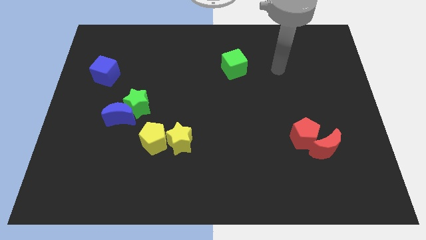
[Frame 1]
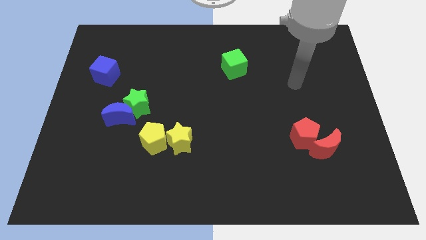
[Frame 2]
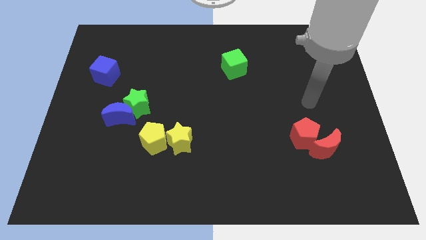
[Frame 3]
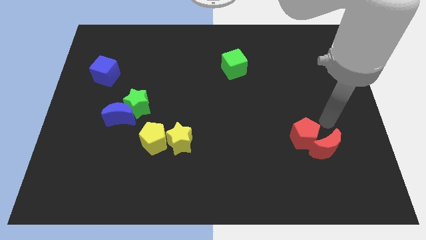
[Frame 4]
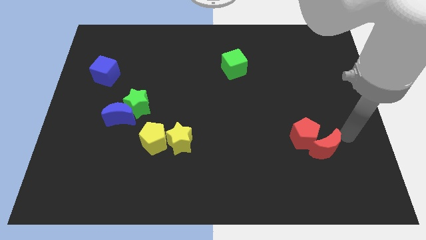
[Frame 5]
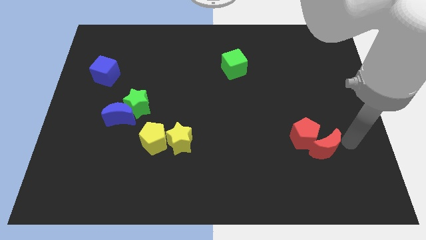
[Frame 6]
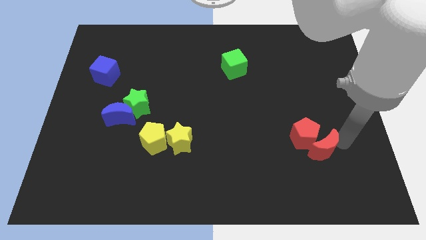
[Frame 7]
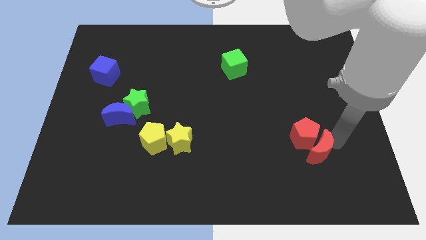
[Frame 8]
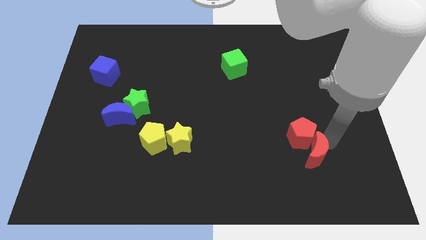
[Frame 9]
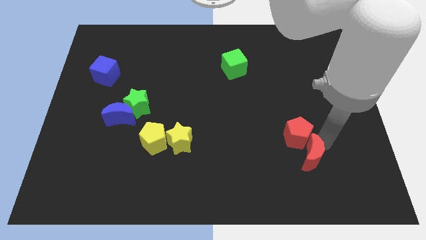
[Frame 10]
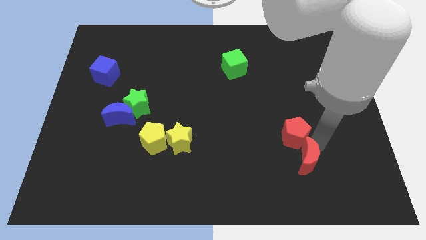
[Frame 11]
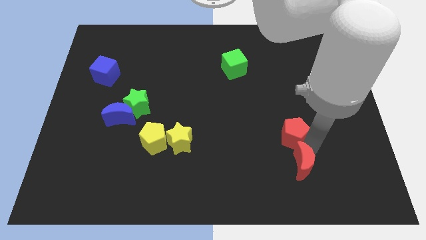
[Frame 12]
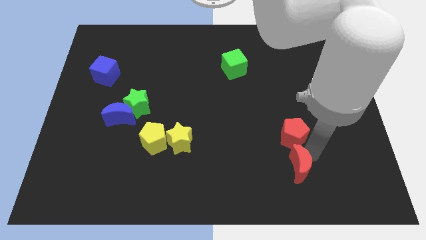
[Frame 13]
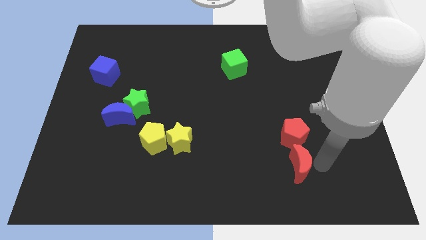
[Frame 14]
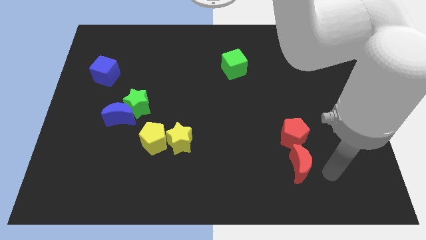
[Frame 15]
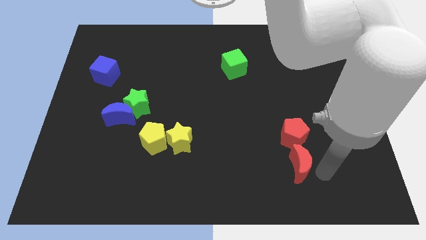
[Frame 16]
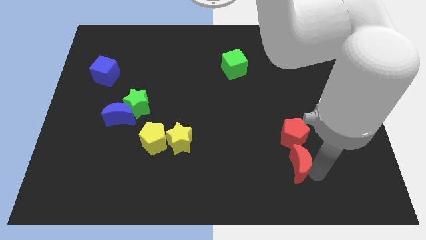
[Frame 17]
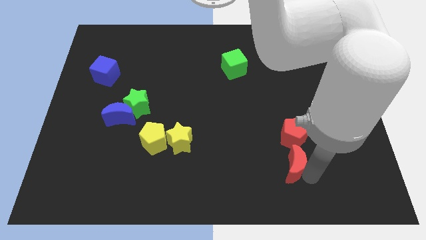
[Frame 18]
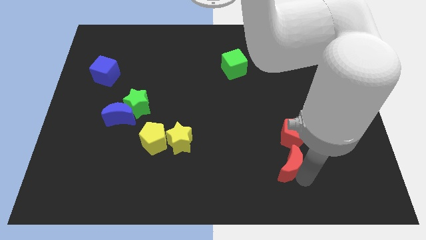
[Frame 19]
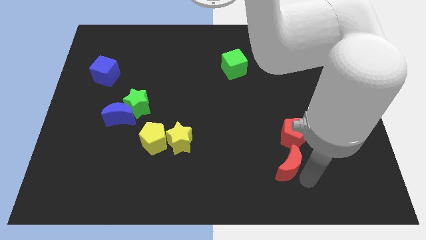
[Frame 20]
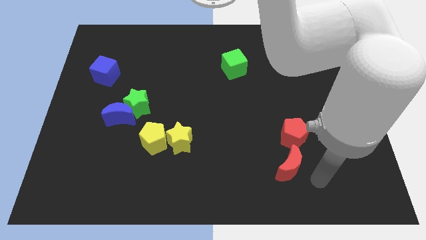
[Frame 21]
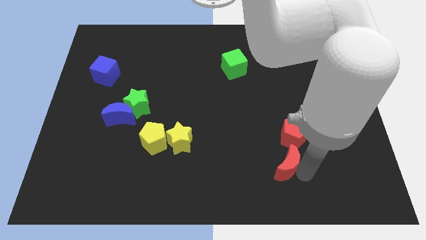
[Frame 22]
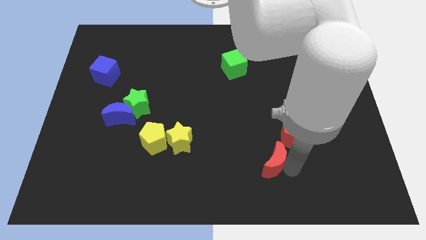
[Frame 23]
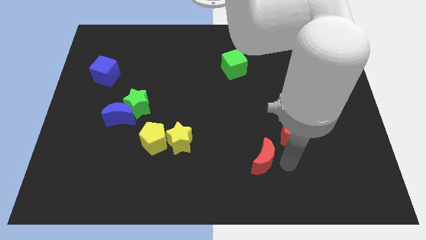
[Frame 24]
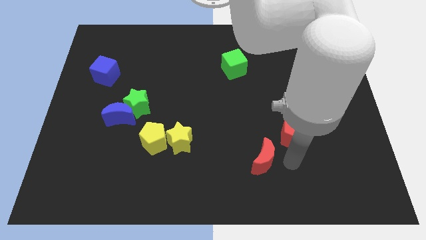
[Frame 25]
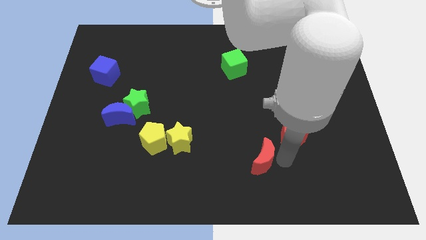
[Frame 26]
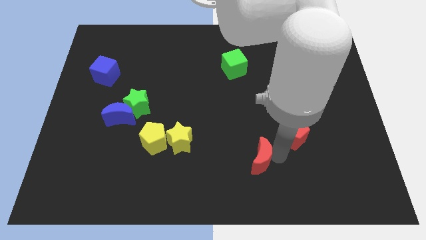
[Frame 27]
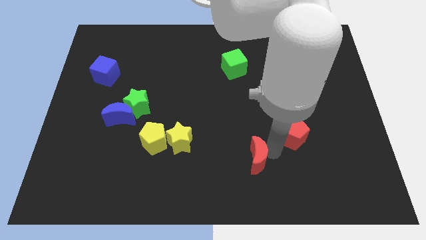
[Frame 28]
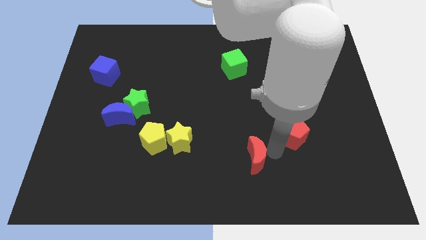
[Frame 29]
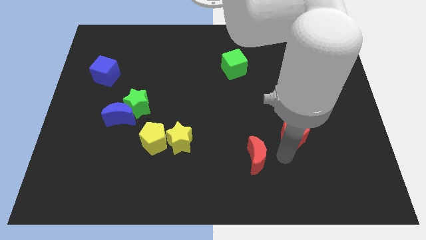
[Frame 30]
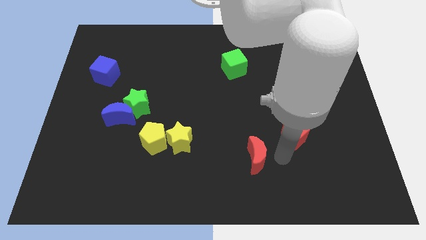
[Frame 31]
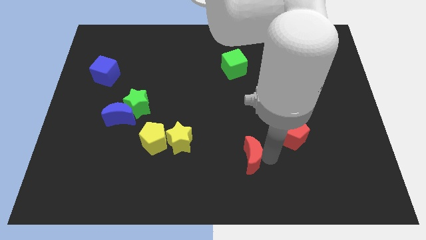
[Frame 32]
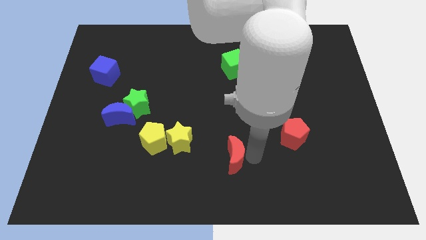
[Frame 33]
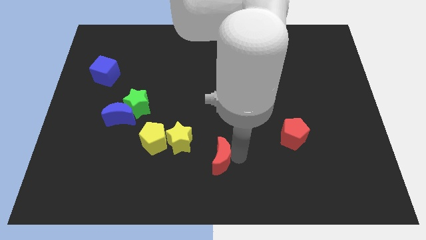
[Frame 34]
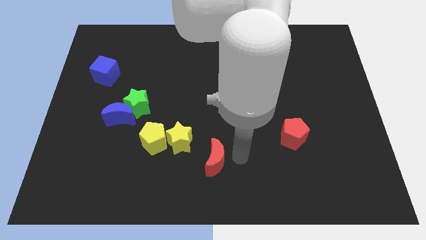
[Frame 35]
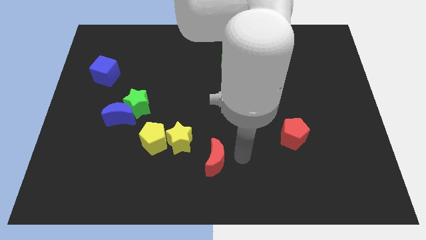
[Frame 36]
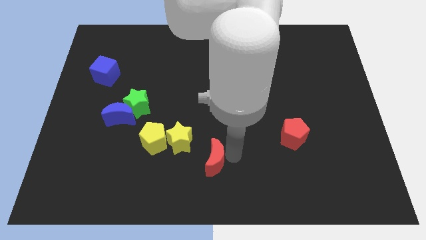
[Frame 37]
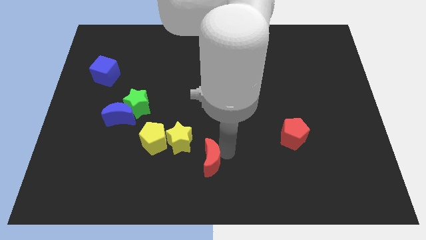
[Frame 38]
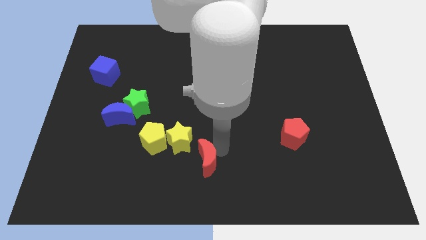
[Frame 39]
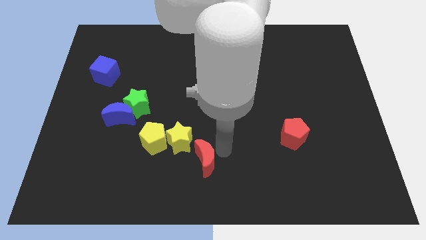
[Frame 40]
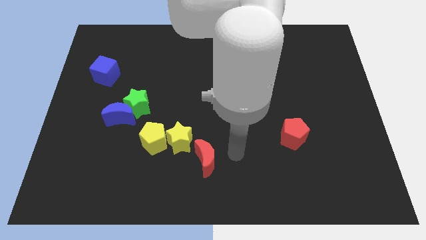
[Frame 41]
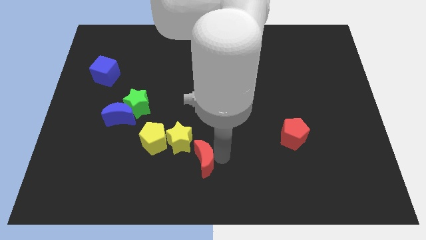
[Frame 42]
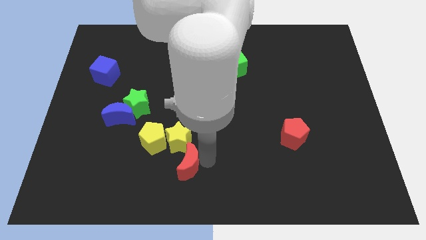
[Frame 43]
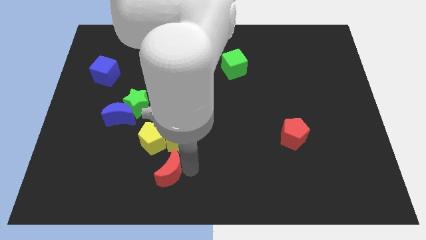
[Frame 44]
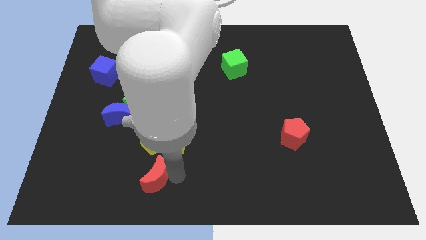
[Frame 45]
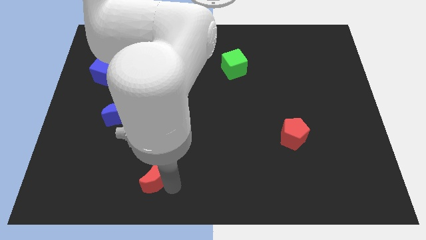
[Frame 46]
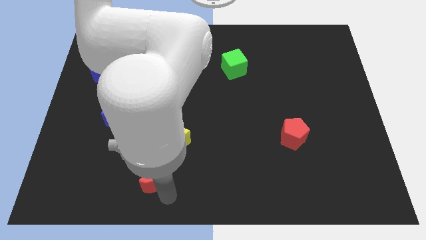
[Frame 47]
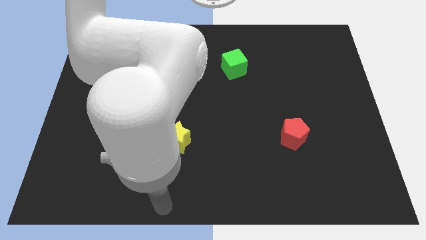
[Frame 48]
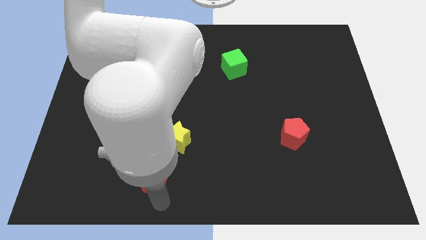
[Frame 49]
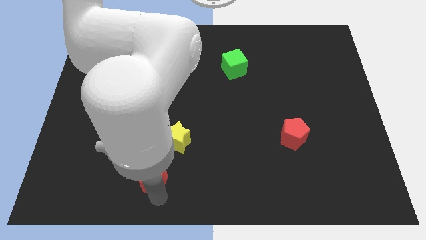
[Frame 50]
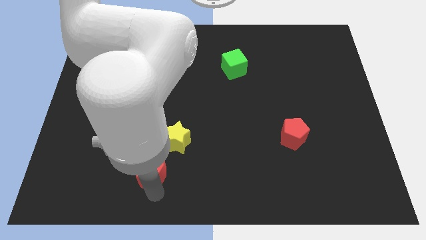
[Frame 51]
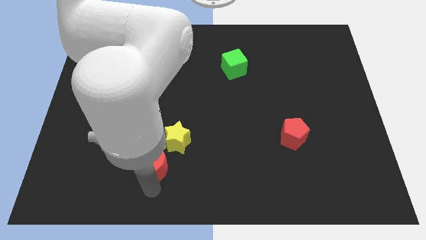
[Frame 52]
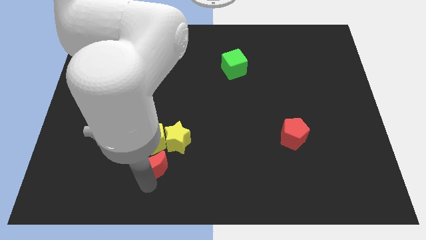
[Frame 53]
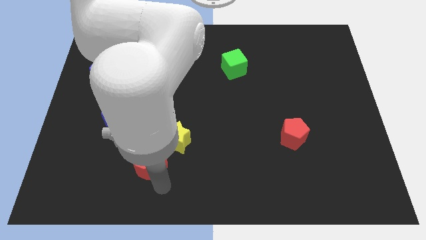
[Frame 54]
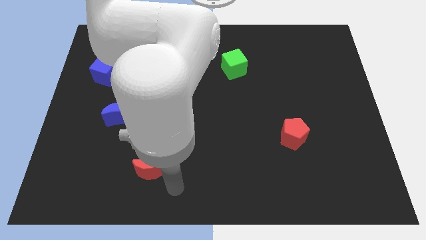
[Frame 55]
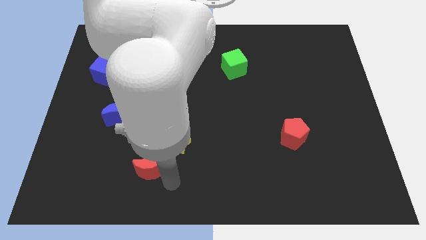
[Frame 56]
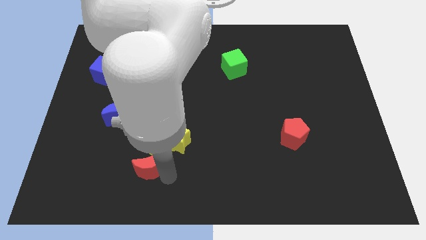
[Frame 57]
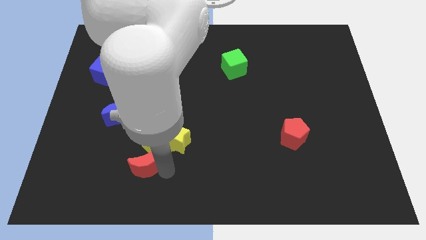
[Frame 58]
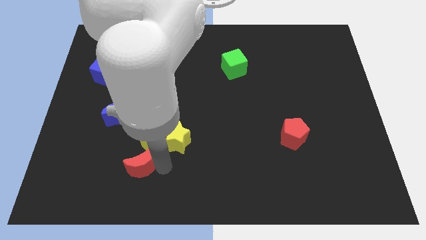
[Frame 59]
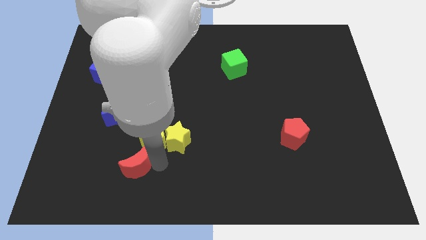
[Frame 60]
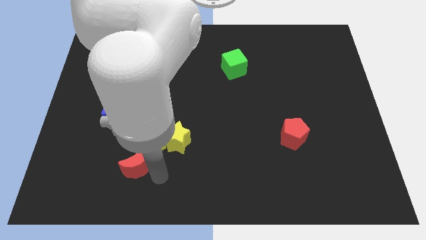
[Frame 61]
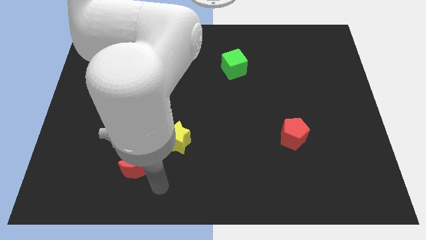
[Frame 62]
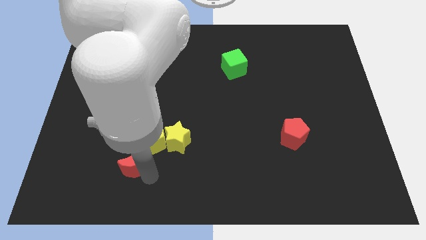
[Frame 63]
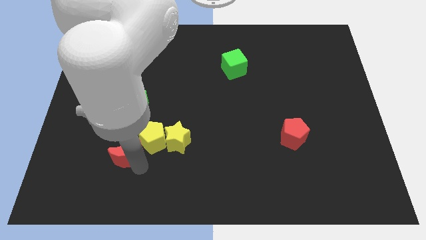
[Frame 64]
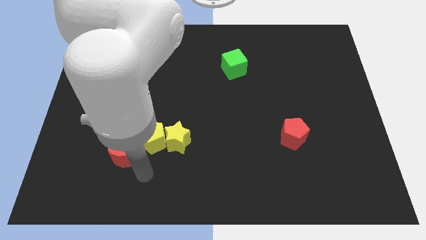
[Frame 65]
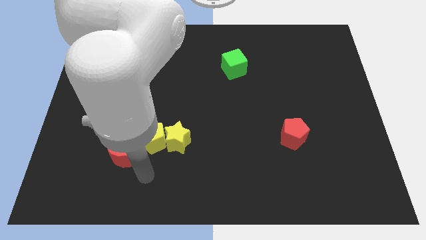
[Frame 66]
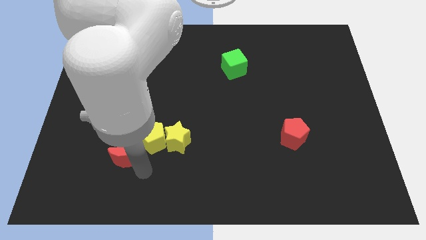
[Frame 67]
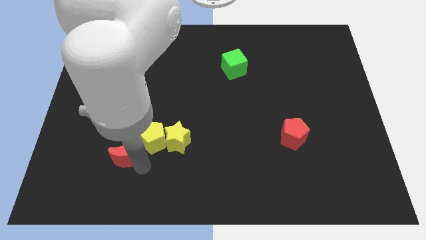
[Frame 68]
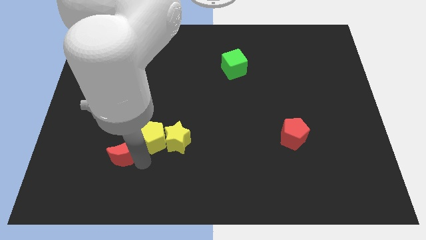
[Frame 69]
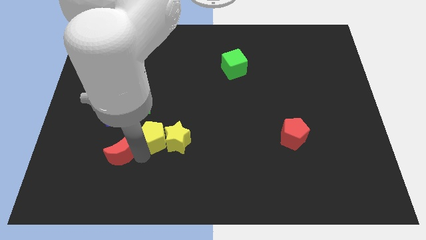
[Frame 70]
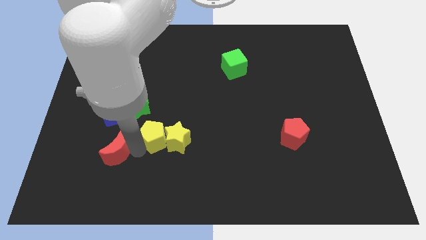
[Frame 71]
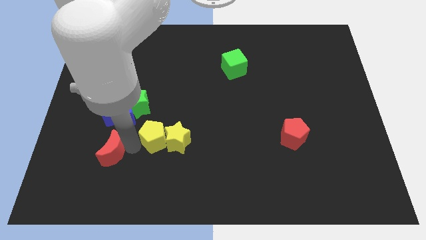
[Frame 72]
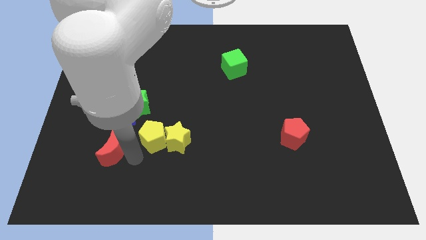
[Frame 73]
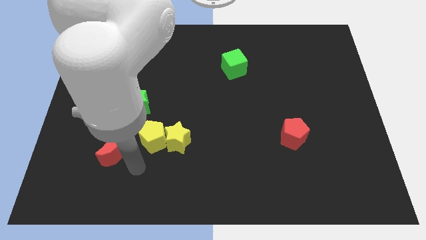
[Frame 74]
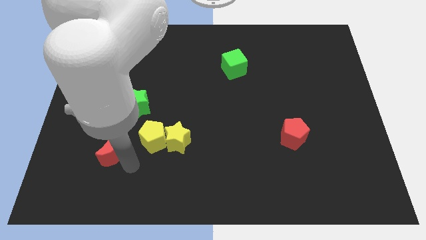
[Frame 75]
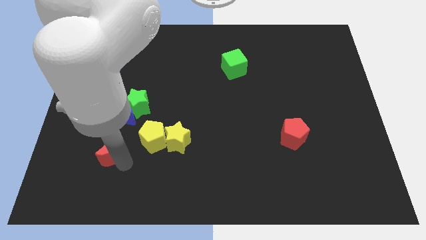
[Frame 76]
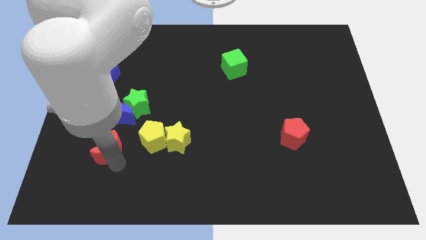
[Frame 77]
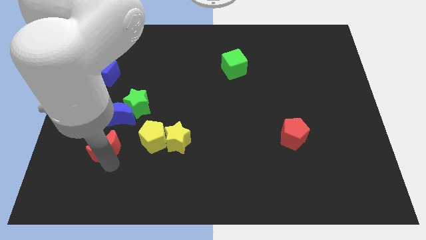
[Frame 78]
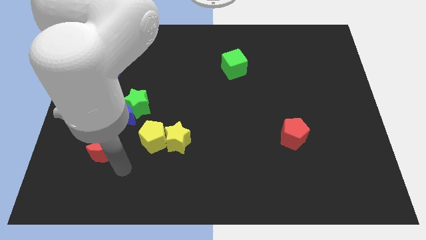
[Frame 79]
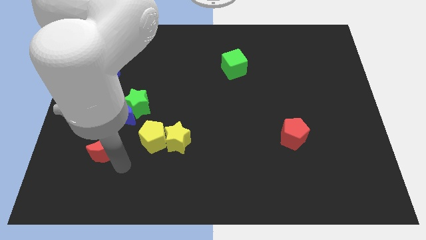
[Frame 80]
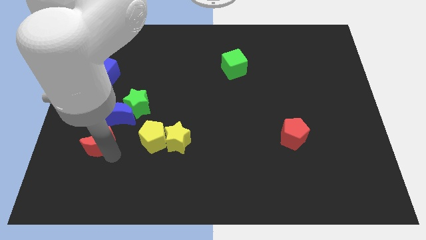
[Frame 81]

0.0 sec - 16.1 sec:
put the red moon to the bottom left of the blue moon
